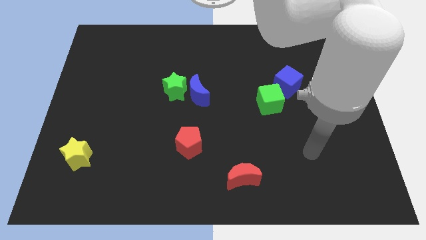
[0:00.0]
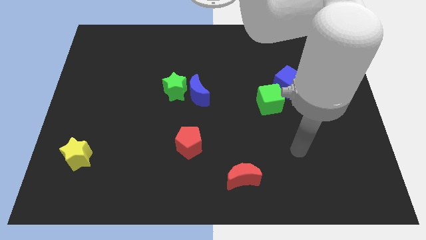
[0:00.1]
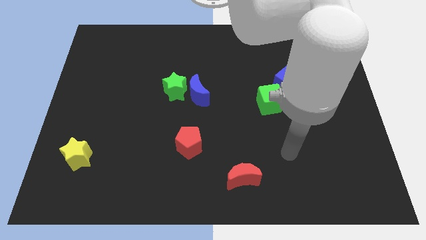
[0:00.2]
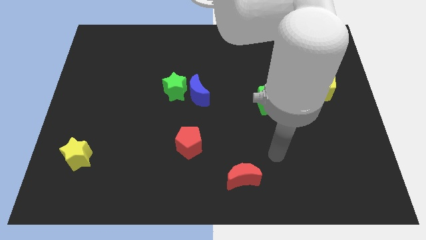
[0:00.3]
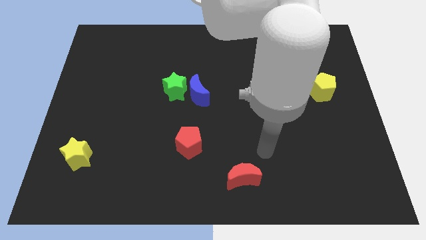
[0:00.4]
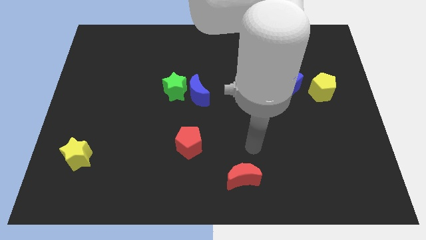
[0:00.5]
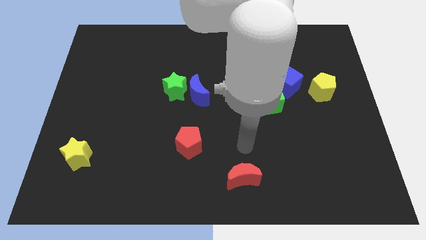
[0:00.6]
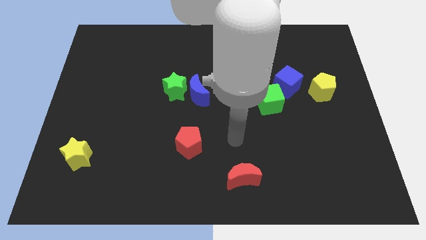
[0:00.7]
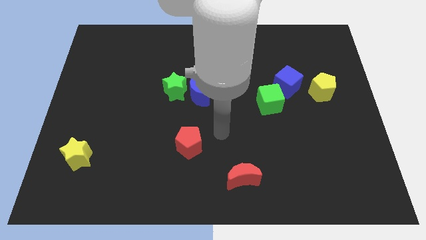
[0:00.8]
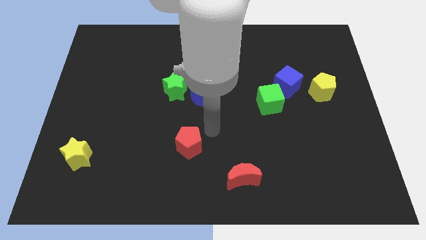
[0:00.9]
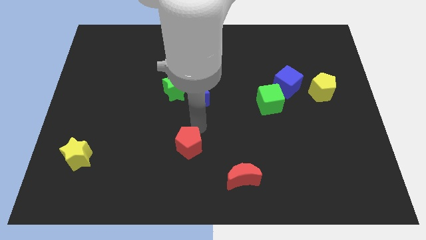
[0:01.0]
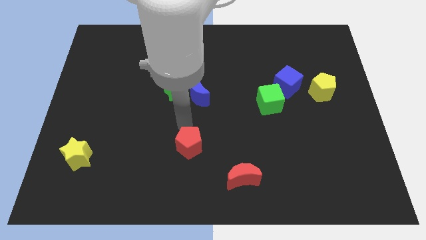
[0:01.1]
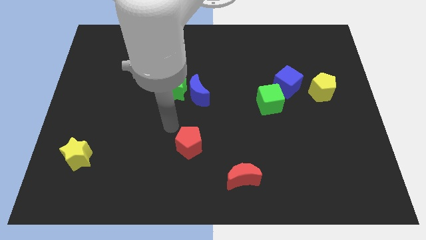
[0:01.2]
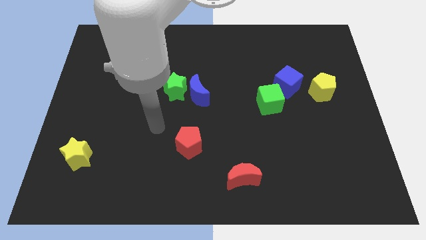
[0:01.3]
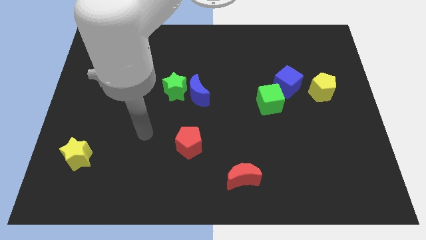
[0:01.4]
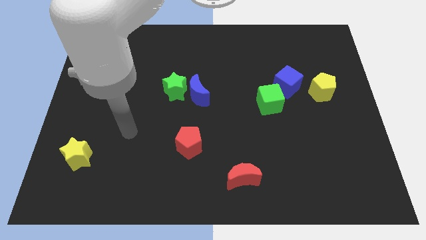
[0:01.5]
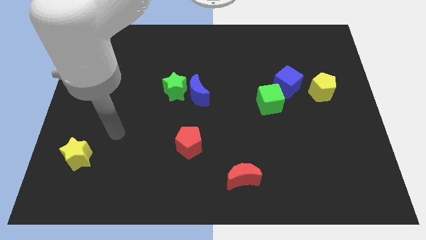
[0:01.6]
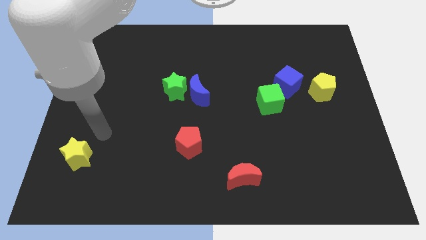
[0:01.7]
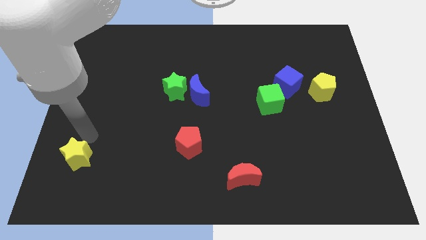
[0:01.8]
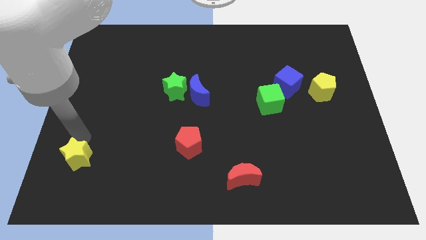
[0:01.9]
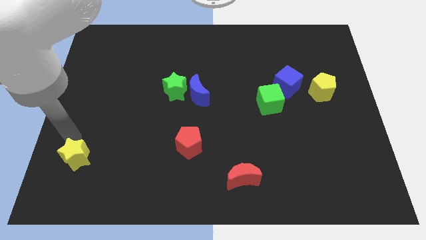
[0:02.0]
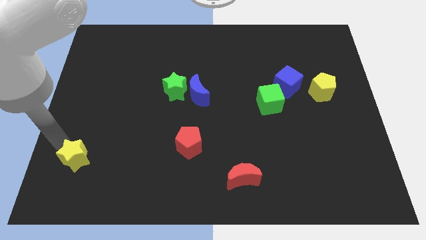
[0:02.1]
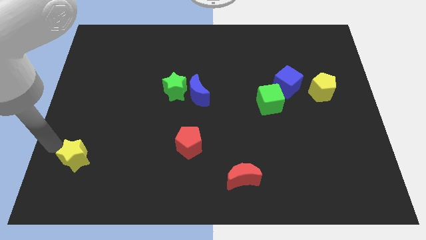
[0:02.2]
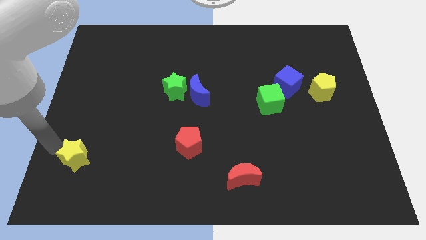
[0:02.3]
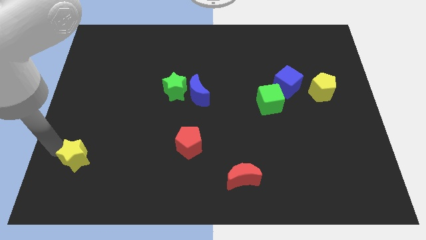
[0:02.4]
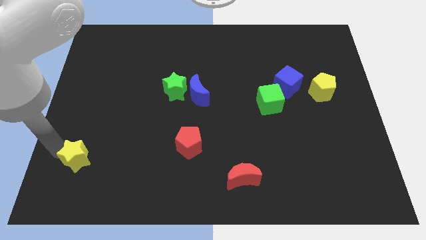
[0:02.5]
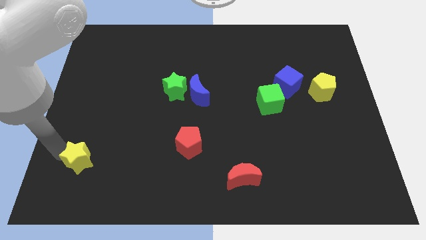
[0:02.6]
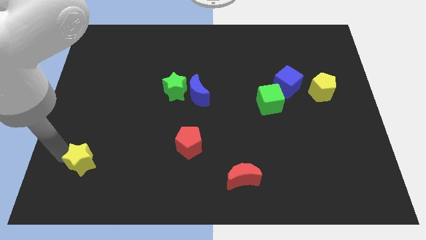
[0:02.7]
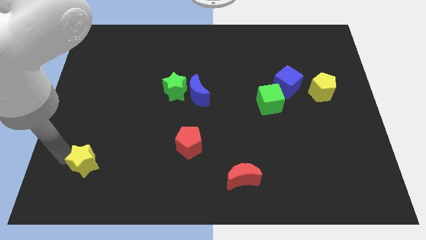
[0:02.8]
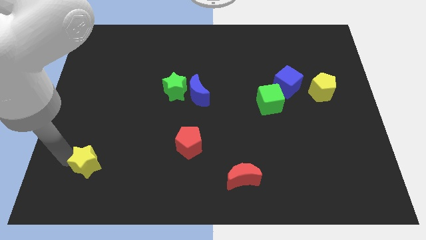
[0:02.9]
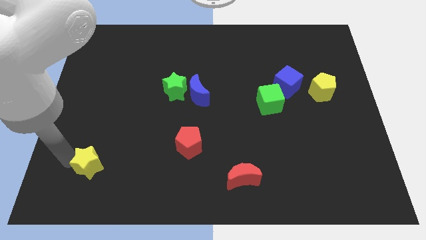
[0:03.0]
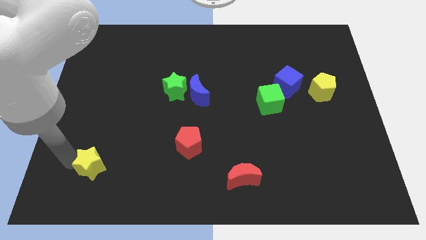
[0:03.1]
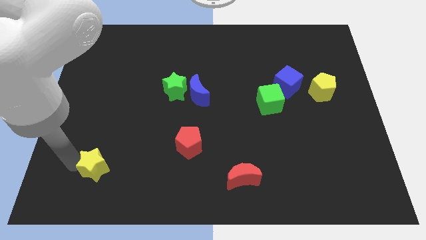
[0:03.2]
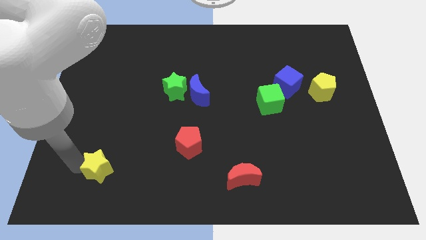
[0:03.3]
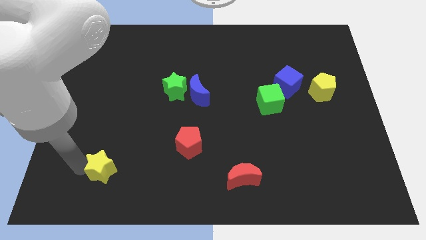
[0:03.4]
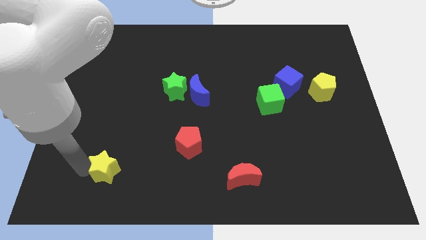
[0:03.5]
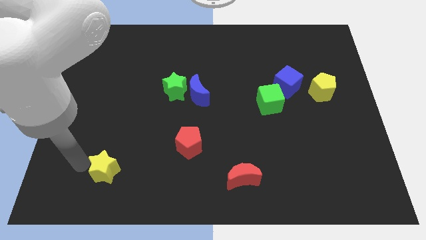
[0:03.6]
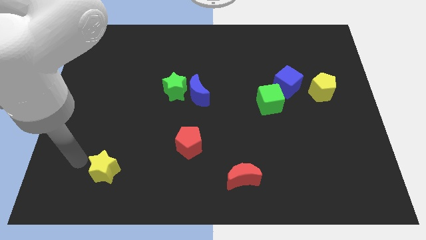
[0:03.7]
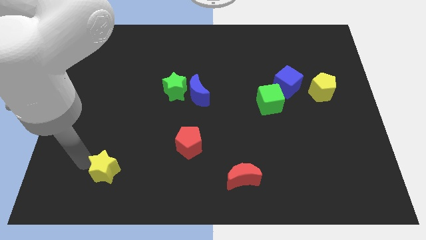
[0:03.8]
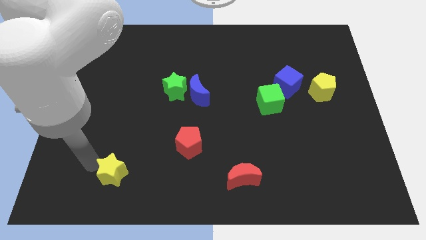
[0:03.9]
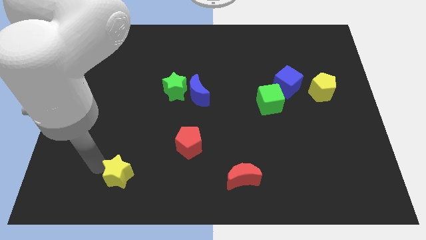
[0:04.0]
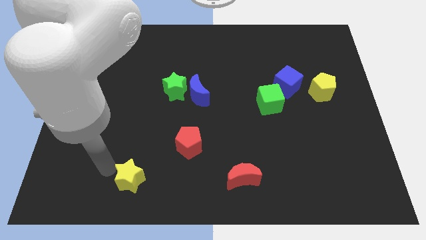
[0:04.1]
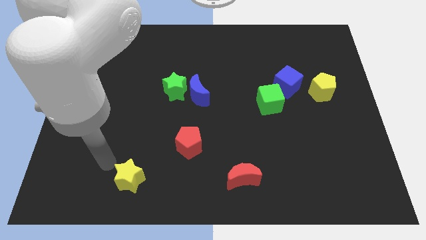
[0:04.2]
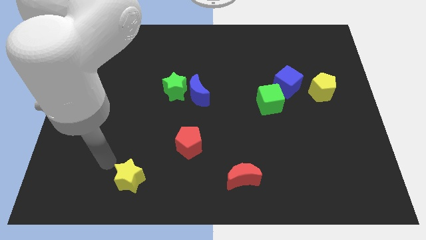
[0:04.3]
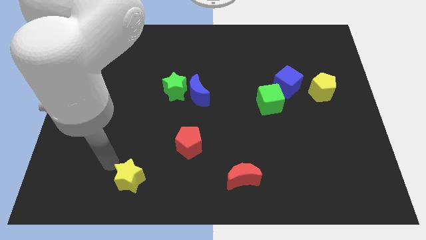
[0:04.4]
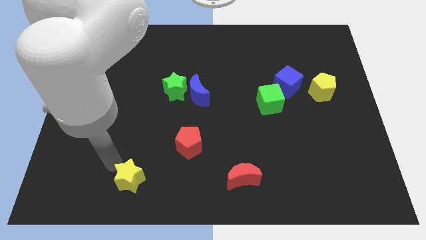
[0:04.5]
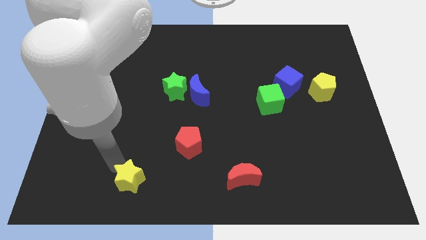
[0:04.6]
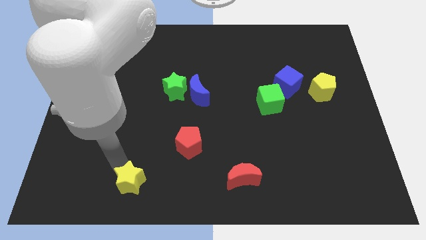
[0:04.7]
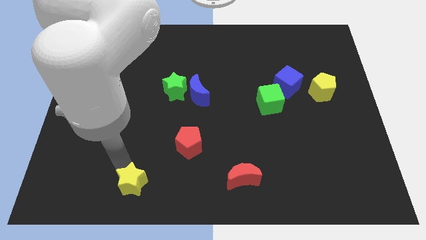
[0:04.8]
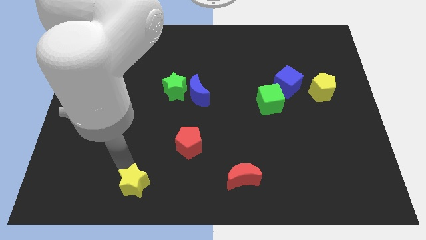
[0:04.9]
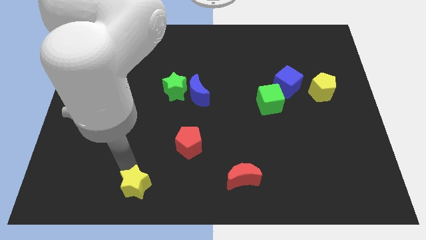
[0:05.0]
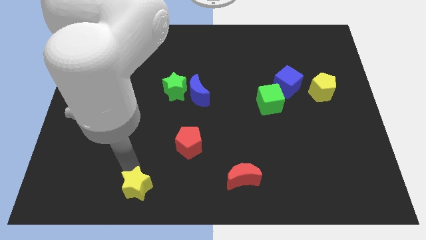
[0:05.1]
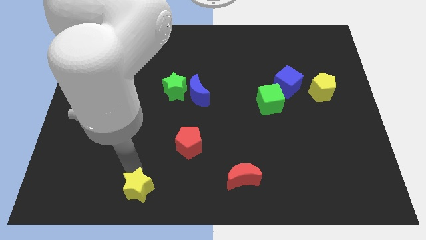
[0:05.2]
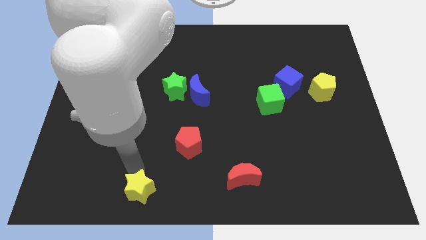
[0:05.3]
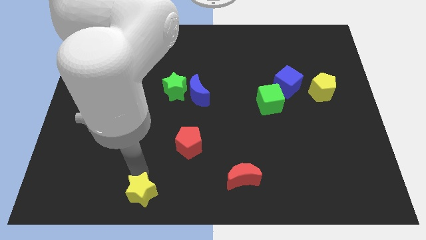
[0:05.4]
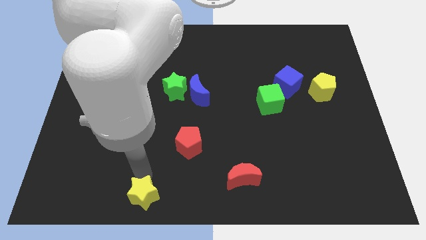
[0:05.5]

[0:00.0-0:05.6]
slide the yellow star to the bottom
